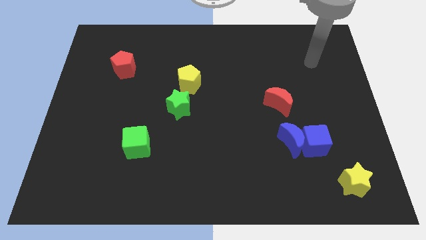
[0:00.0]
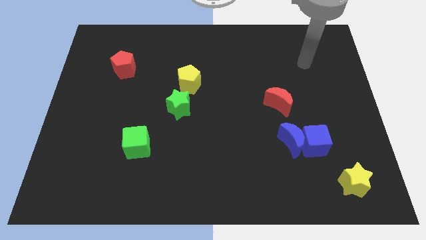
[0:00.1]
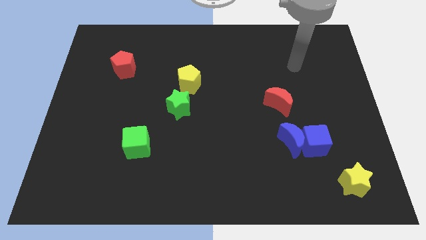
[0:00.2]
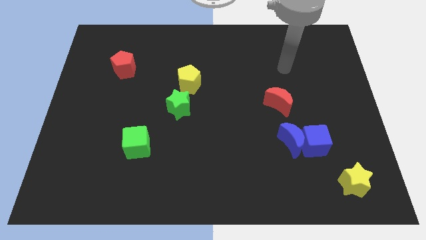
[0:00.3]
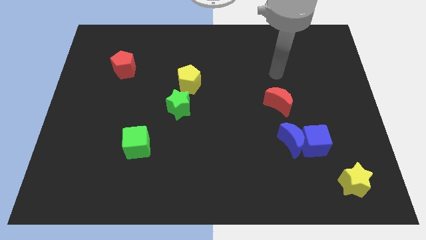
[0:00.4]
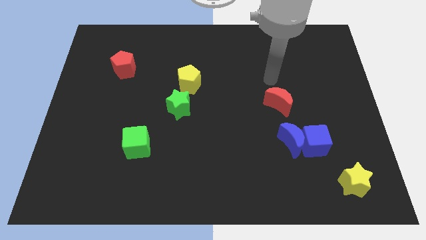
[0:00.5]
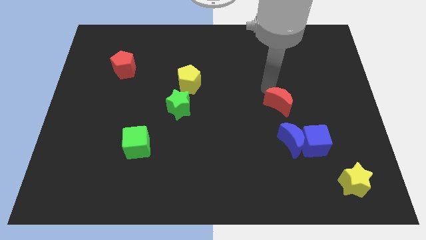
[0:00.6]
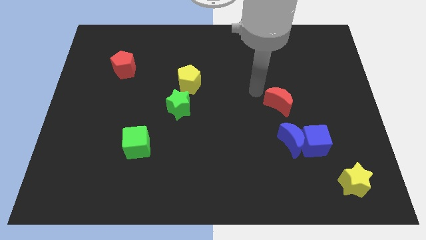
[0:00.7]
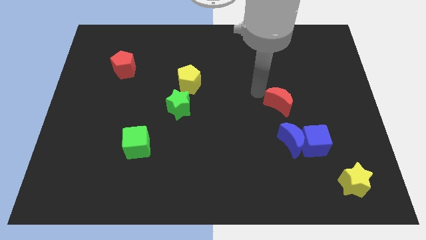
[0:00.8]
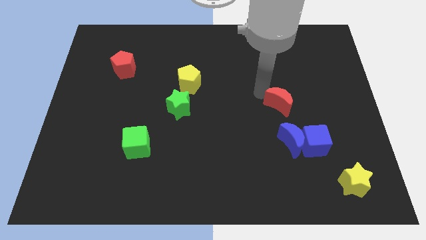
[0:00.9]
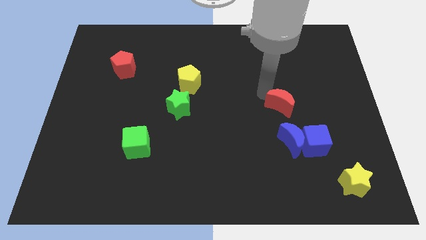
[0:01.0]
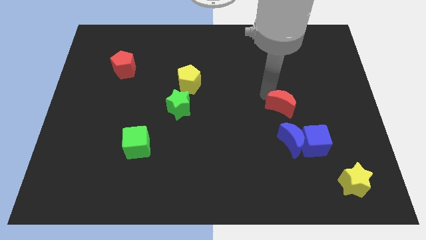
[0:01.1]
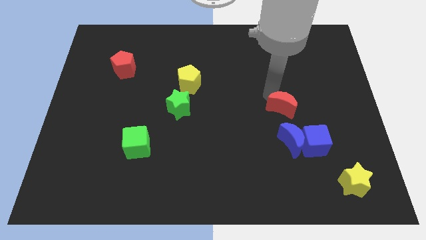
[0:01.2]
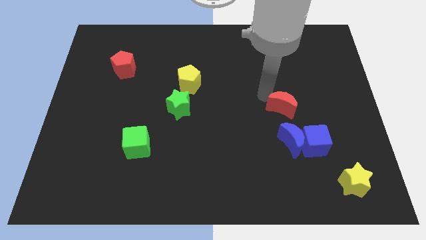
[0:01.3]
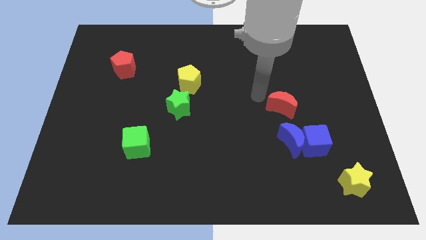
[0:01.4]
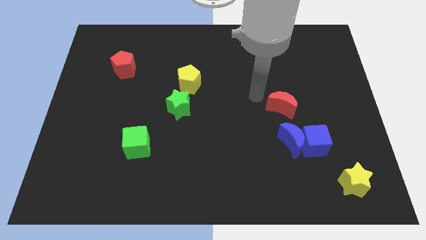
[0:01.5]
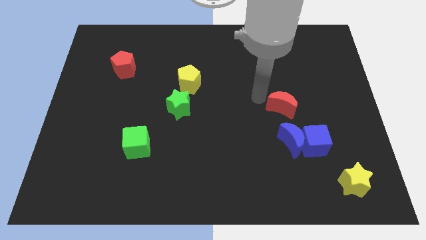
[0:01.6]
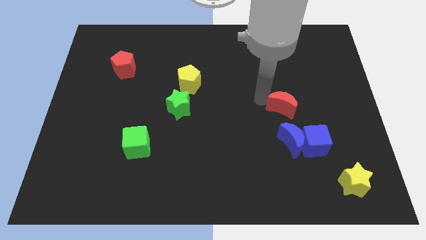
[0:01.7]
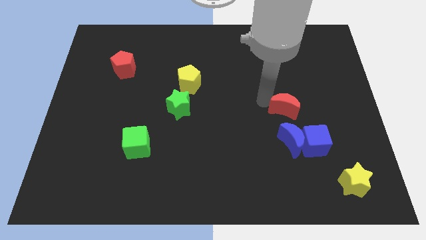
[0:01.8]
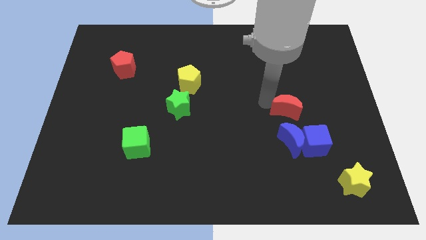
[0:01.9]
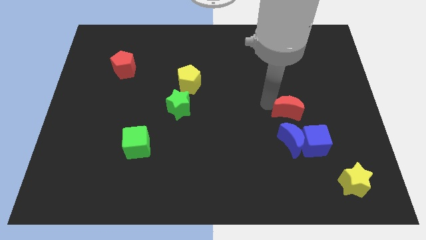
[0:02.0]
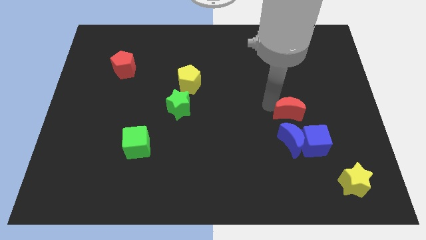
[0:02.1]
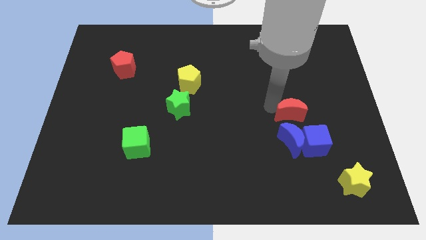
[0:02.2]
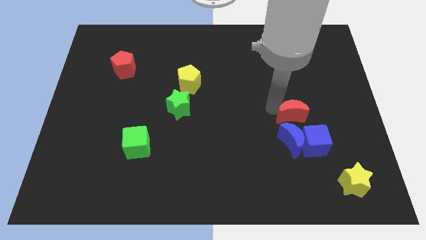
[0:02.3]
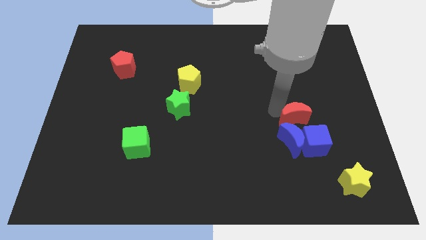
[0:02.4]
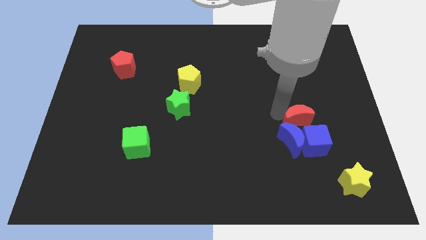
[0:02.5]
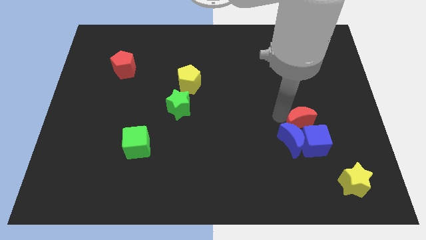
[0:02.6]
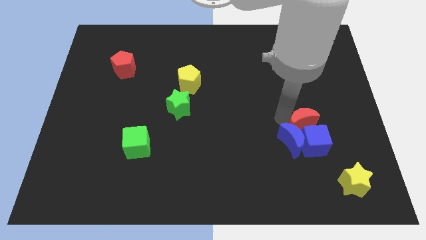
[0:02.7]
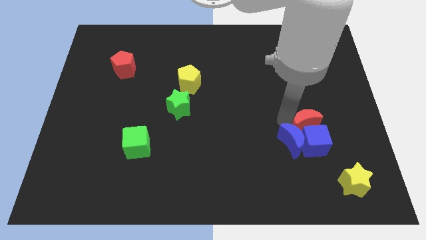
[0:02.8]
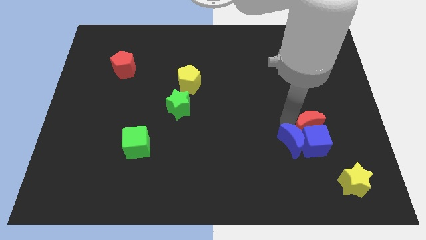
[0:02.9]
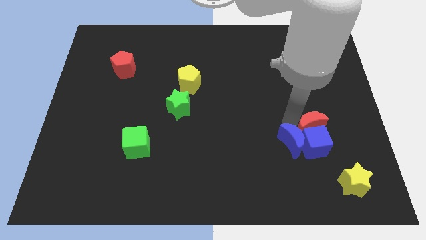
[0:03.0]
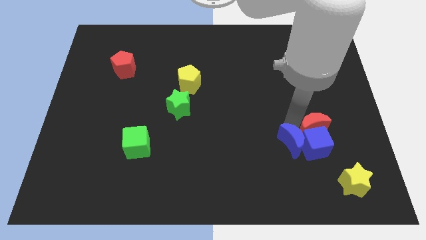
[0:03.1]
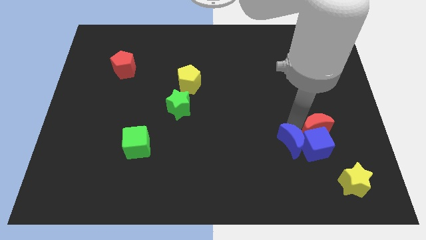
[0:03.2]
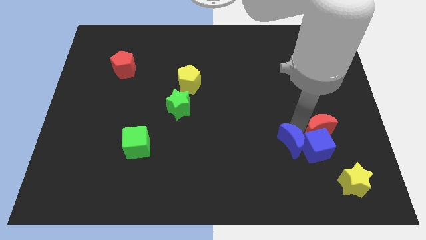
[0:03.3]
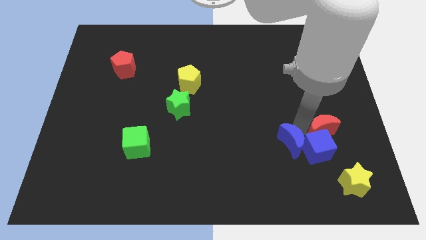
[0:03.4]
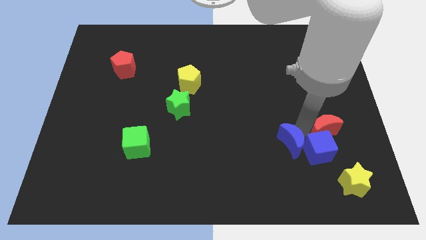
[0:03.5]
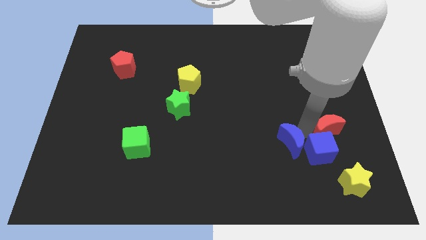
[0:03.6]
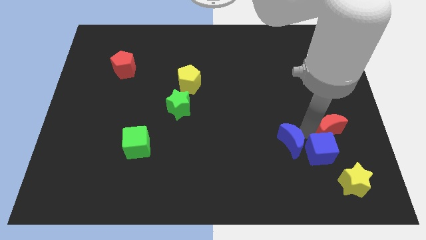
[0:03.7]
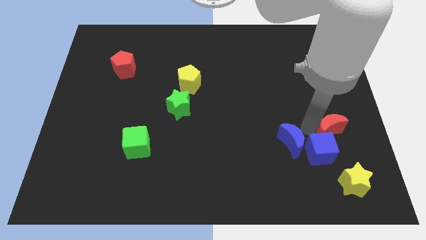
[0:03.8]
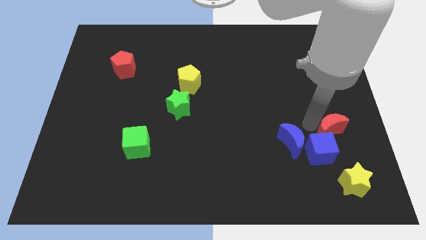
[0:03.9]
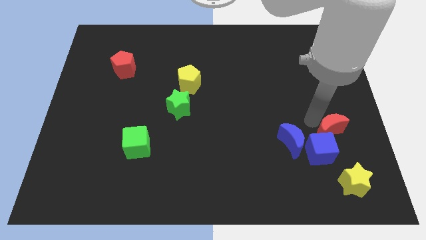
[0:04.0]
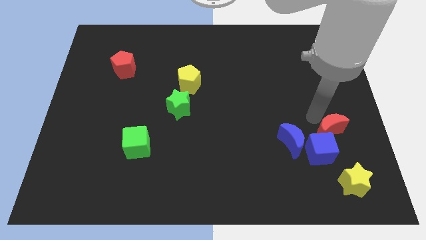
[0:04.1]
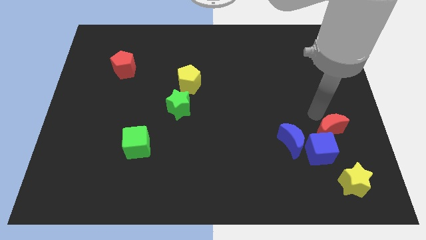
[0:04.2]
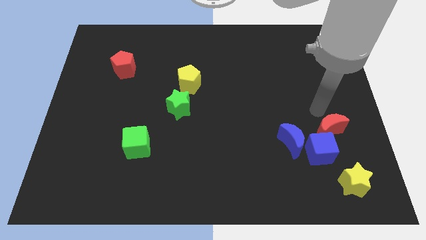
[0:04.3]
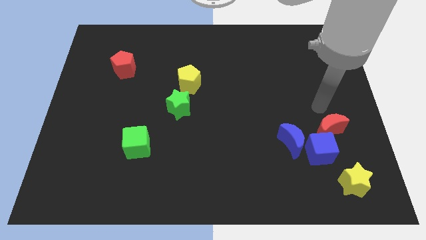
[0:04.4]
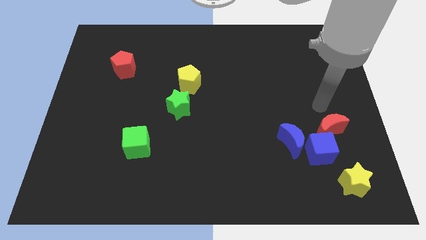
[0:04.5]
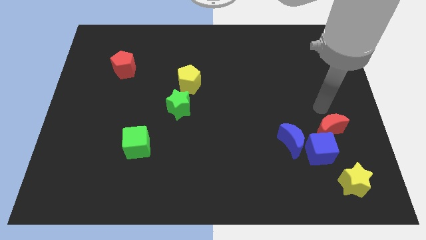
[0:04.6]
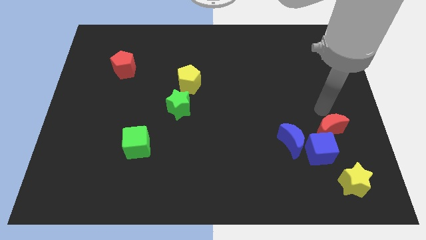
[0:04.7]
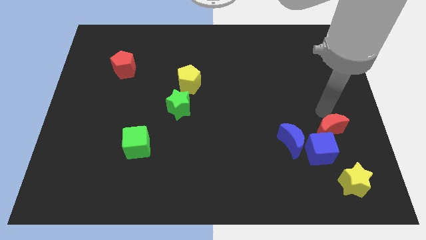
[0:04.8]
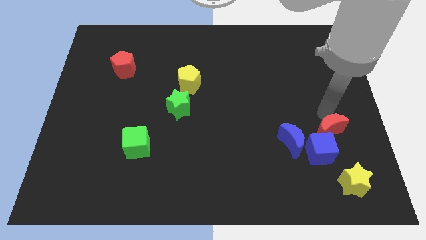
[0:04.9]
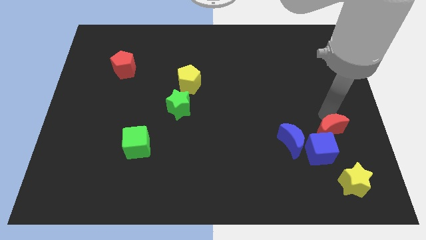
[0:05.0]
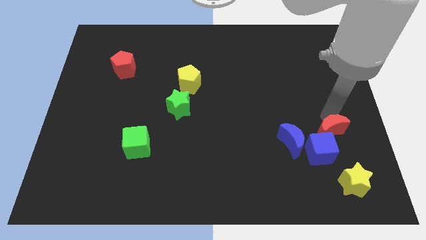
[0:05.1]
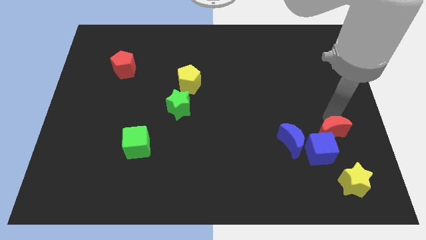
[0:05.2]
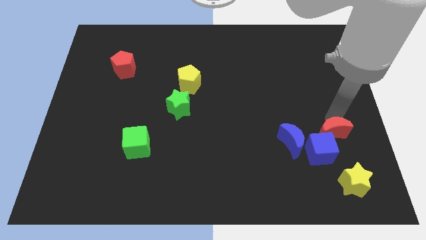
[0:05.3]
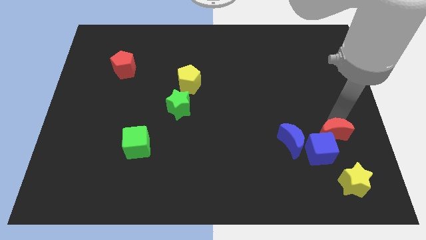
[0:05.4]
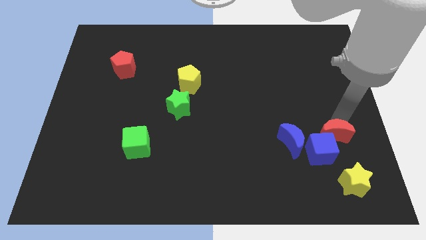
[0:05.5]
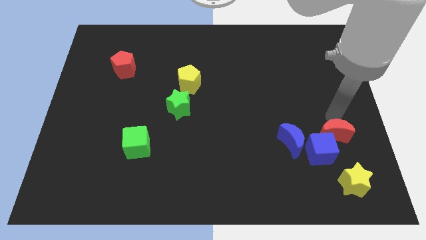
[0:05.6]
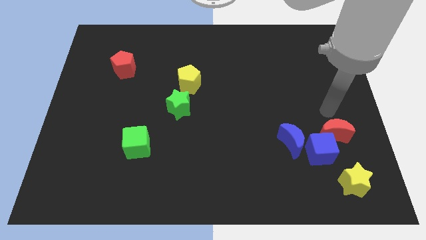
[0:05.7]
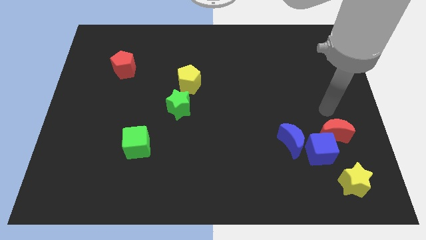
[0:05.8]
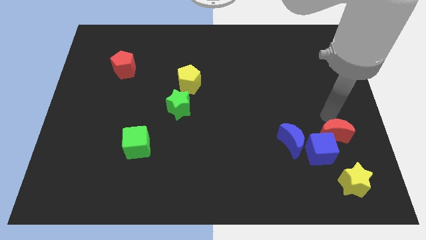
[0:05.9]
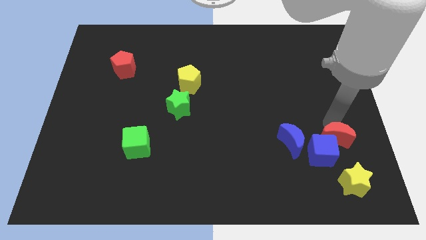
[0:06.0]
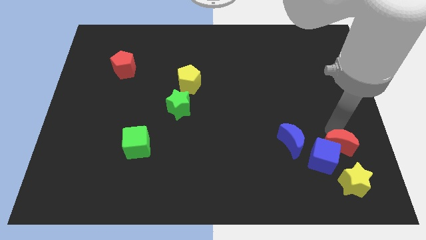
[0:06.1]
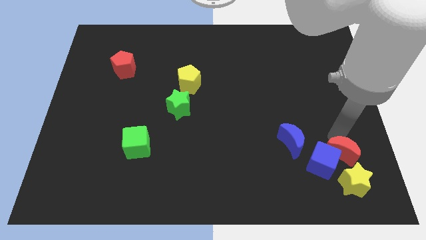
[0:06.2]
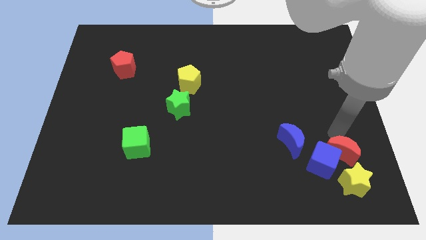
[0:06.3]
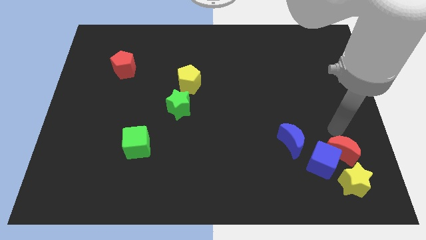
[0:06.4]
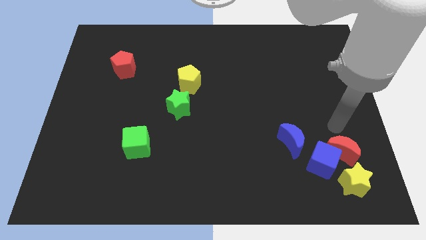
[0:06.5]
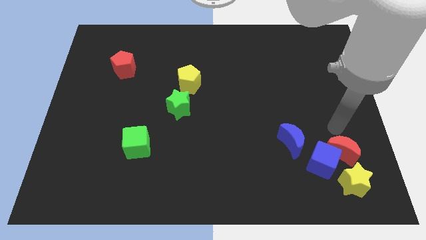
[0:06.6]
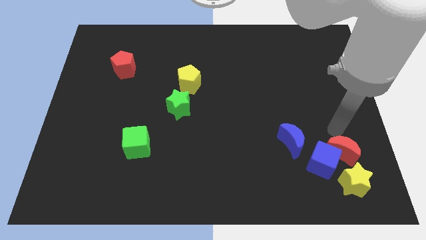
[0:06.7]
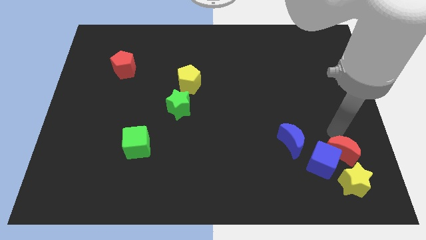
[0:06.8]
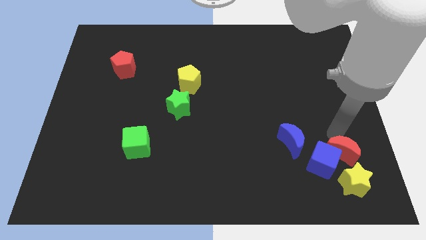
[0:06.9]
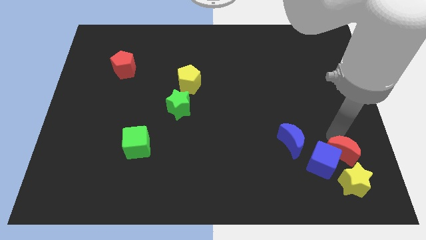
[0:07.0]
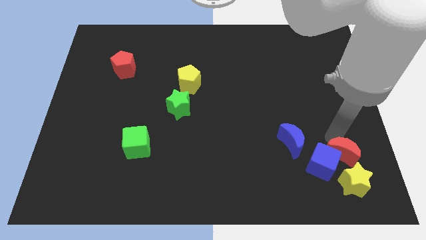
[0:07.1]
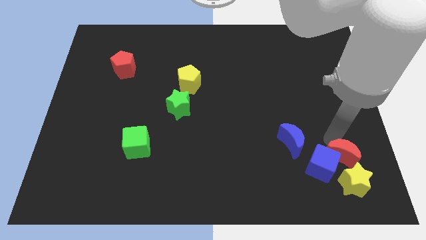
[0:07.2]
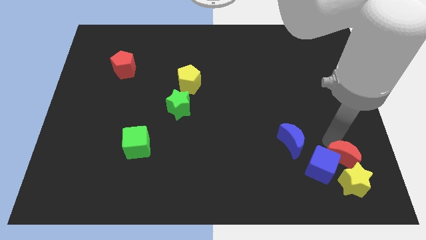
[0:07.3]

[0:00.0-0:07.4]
push the red moon close to the yellow star
